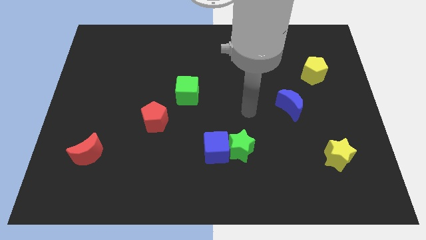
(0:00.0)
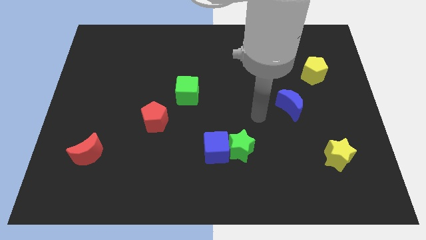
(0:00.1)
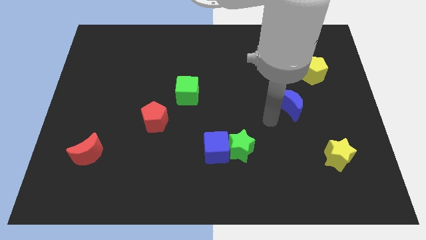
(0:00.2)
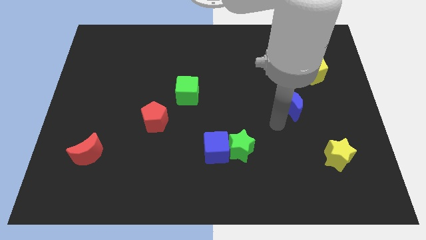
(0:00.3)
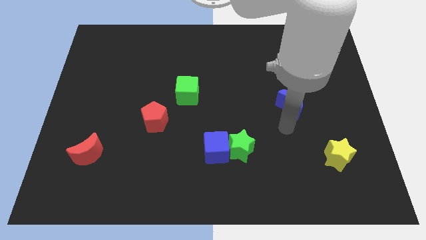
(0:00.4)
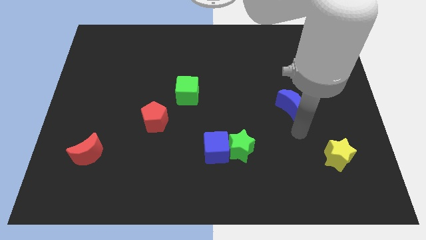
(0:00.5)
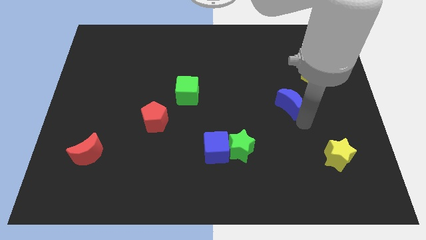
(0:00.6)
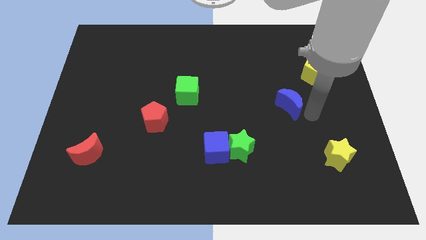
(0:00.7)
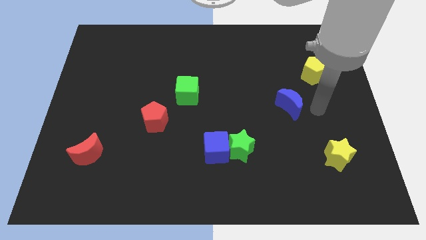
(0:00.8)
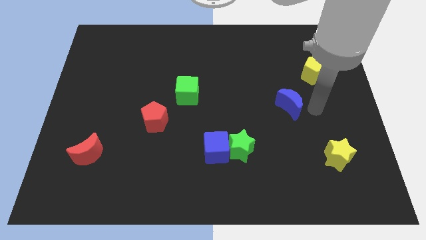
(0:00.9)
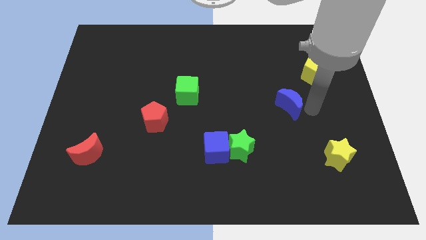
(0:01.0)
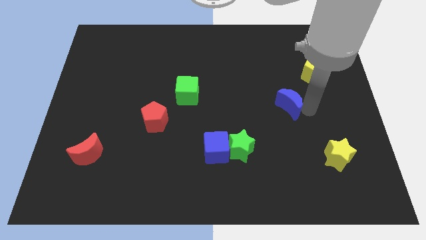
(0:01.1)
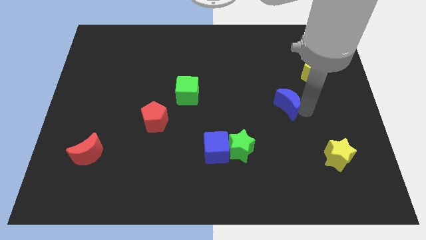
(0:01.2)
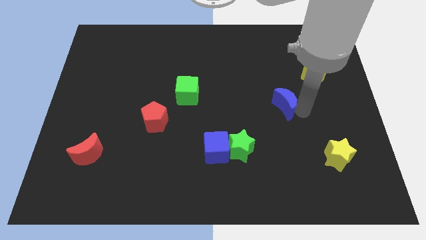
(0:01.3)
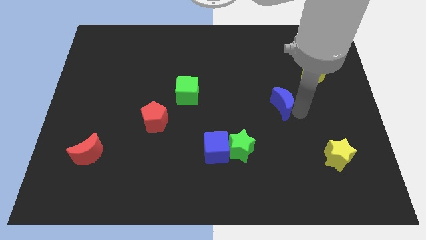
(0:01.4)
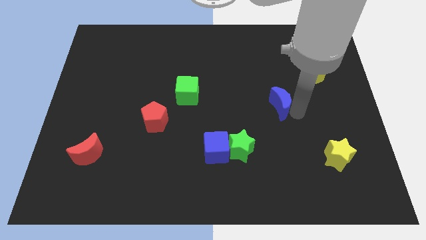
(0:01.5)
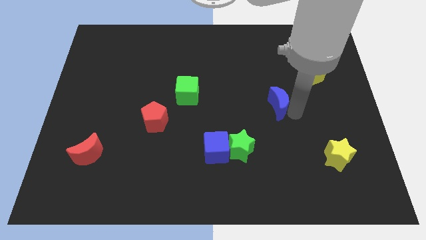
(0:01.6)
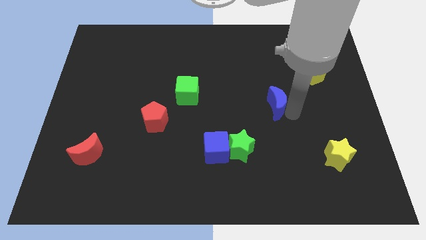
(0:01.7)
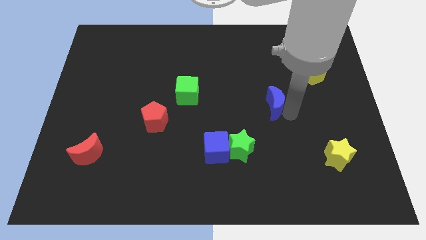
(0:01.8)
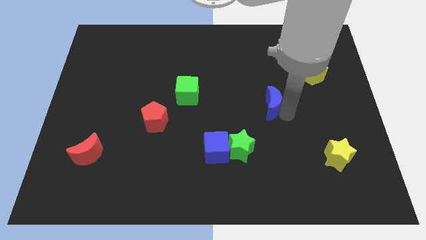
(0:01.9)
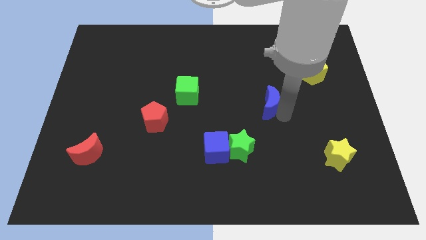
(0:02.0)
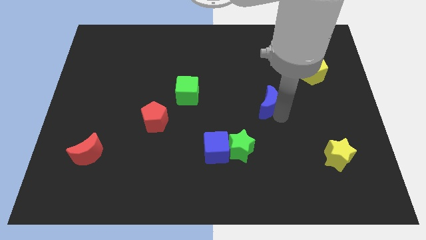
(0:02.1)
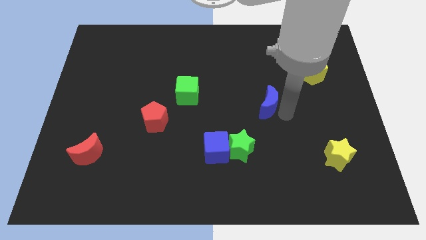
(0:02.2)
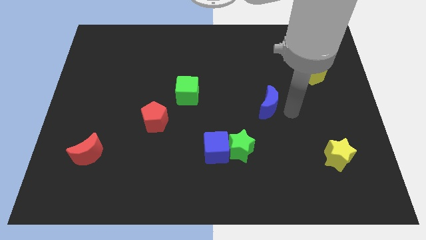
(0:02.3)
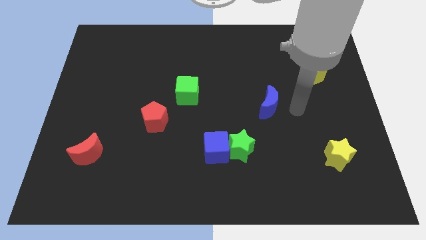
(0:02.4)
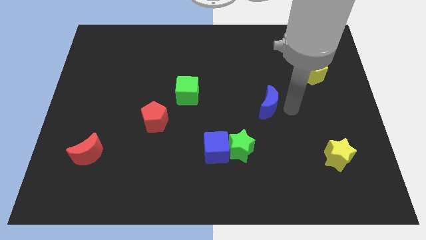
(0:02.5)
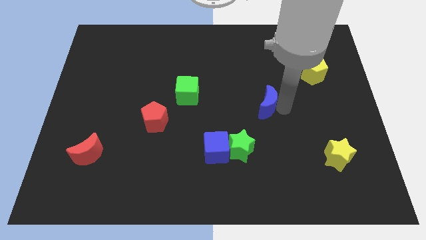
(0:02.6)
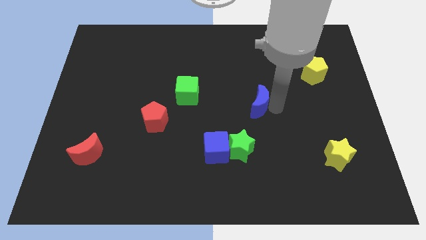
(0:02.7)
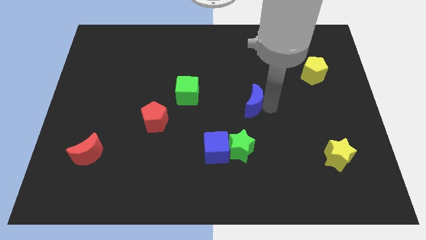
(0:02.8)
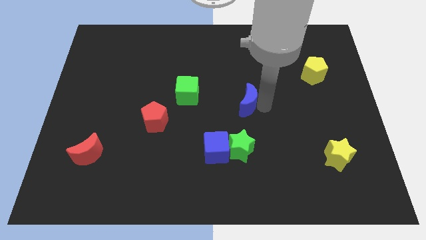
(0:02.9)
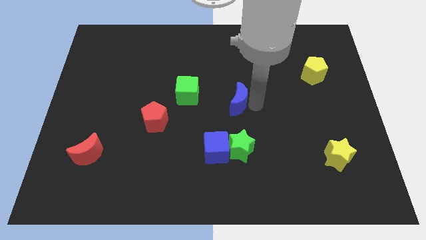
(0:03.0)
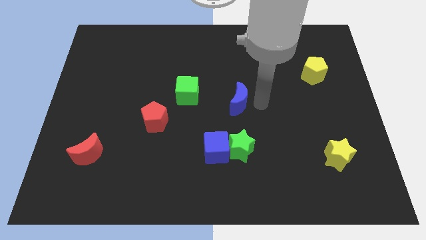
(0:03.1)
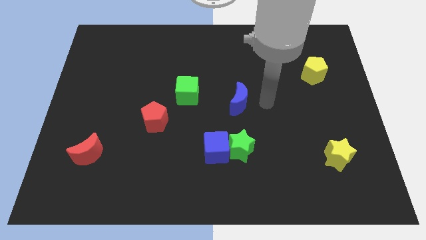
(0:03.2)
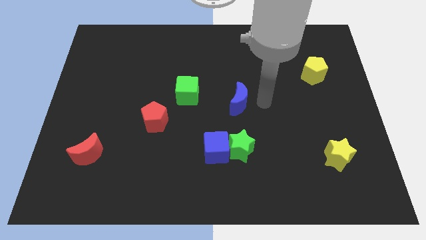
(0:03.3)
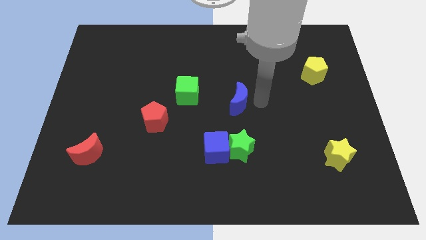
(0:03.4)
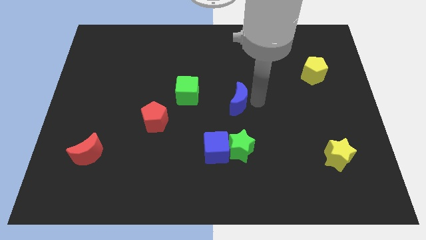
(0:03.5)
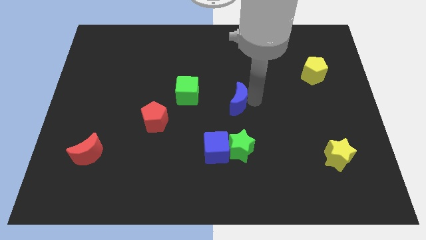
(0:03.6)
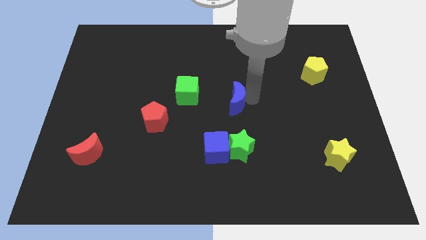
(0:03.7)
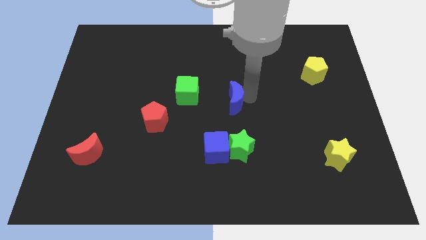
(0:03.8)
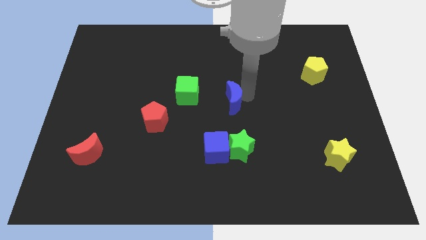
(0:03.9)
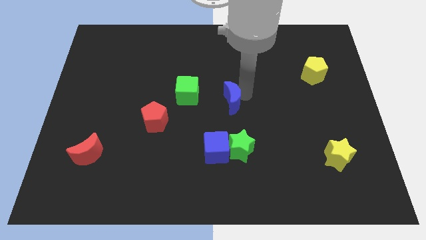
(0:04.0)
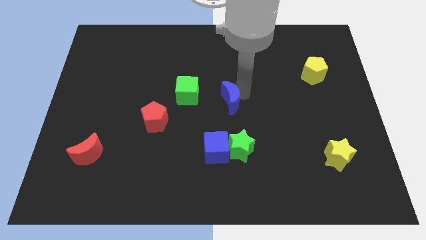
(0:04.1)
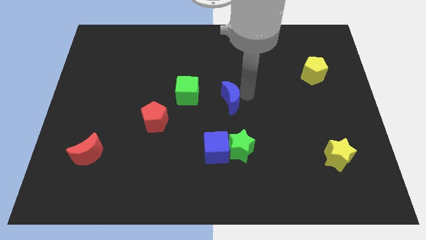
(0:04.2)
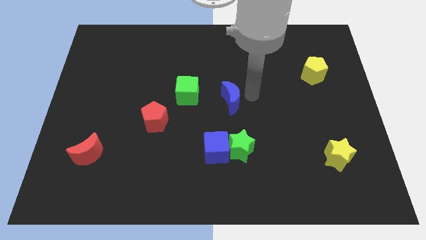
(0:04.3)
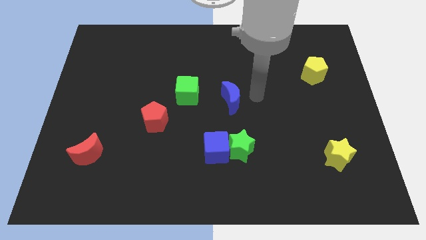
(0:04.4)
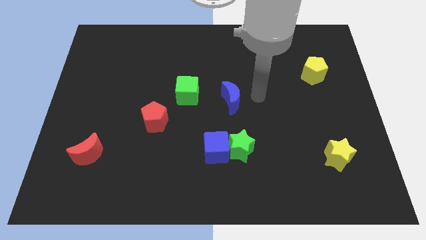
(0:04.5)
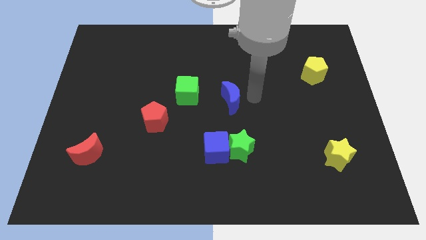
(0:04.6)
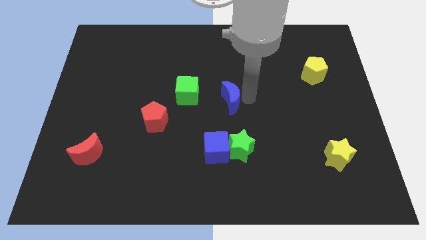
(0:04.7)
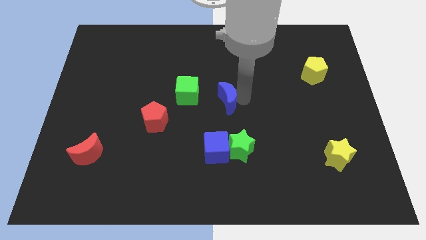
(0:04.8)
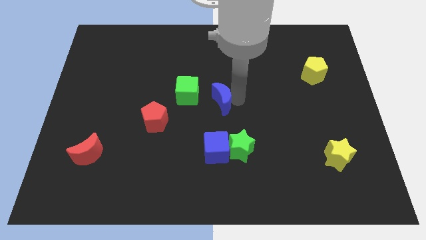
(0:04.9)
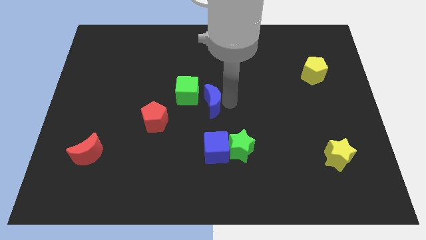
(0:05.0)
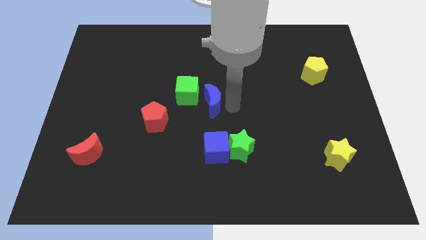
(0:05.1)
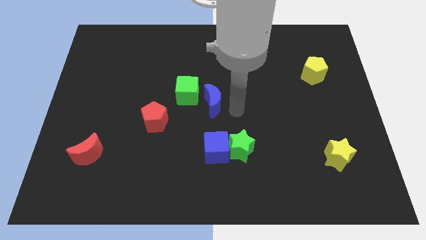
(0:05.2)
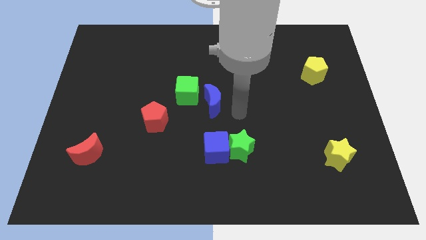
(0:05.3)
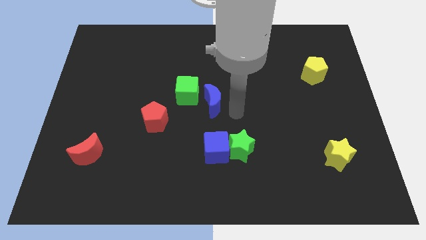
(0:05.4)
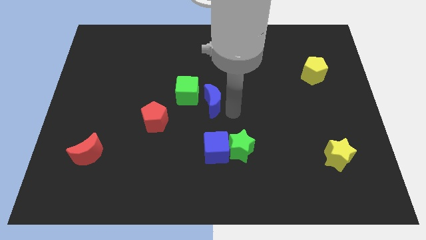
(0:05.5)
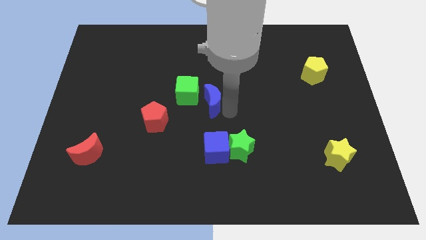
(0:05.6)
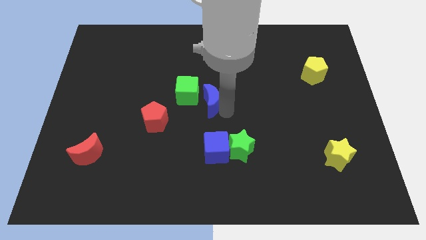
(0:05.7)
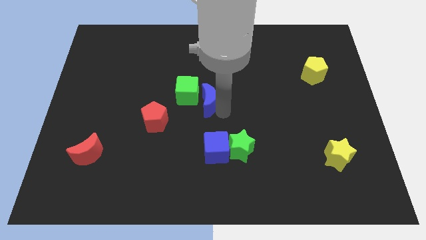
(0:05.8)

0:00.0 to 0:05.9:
put the blue moon close to the green cube

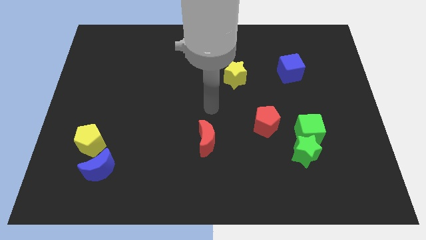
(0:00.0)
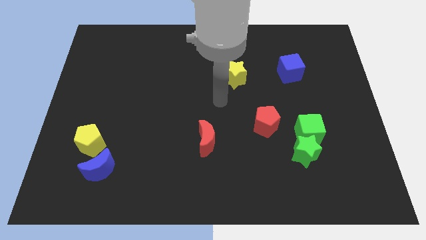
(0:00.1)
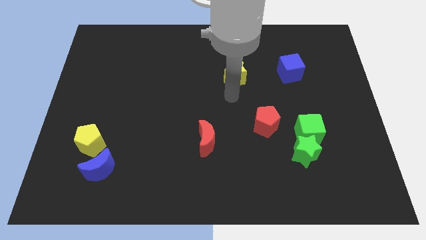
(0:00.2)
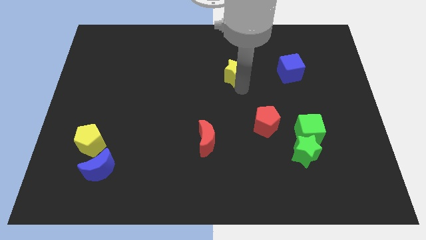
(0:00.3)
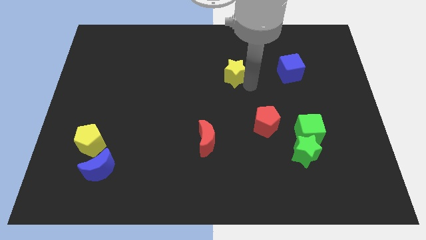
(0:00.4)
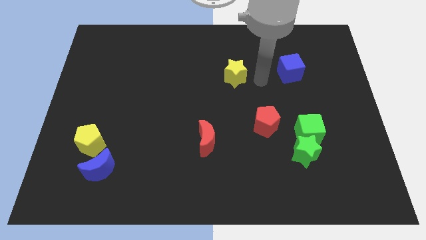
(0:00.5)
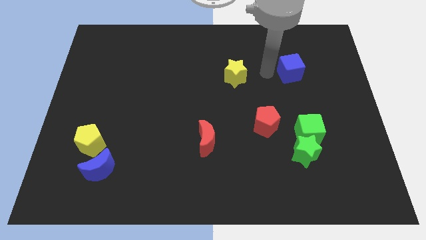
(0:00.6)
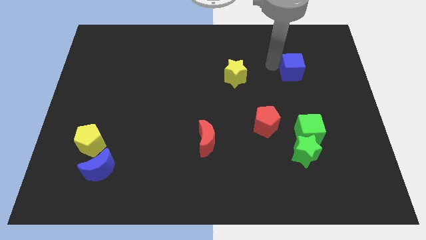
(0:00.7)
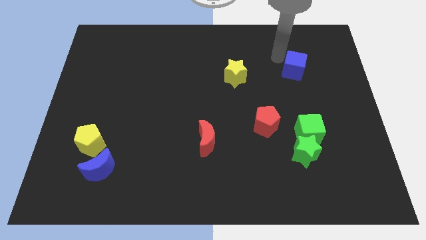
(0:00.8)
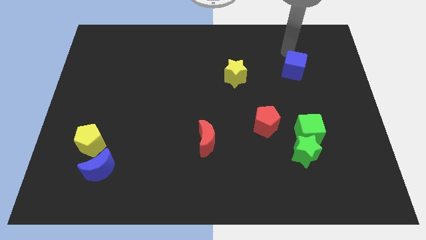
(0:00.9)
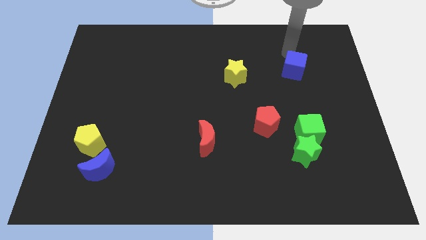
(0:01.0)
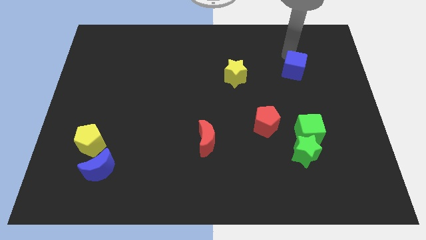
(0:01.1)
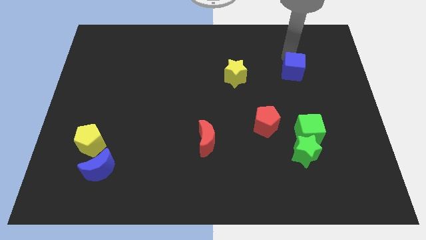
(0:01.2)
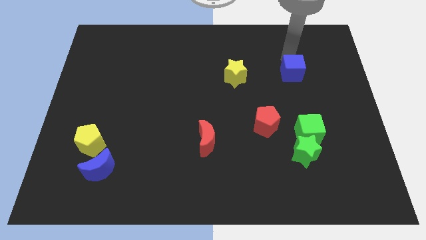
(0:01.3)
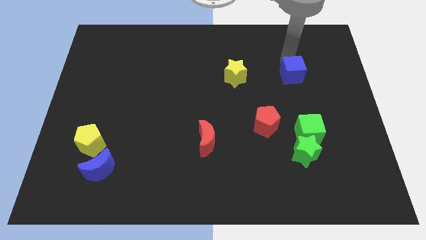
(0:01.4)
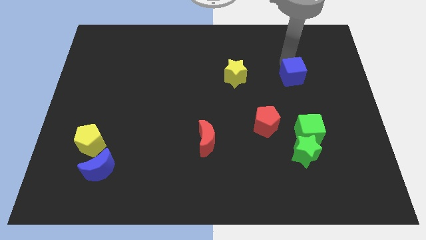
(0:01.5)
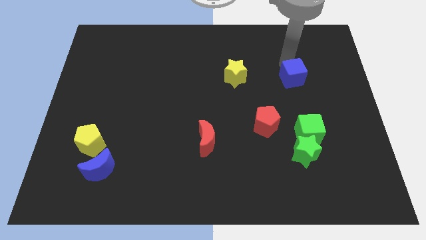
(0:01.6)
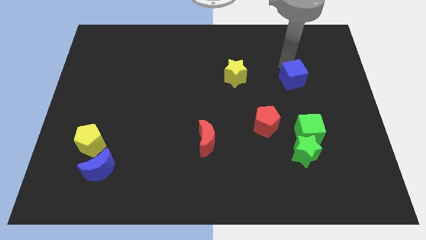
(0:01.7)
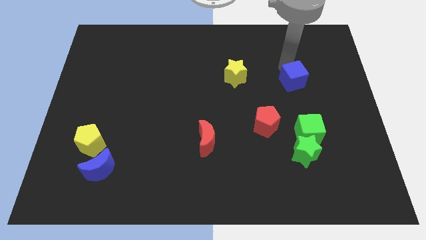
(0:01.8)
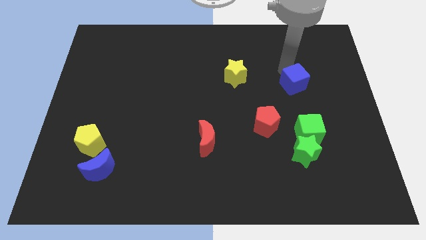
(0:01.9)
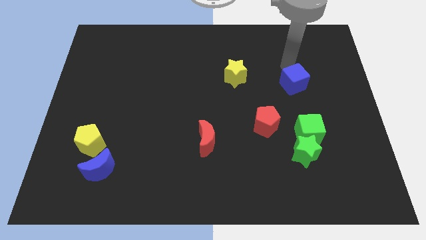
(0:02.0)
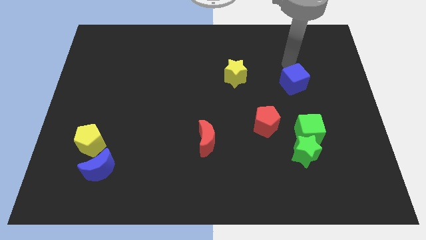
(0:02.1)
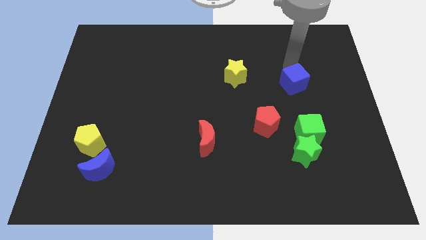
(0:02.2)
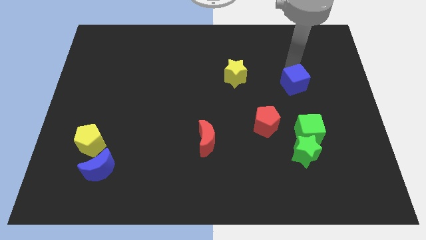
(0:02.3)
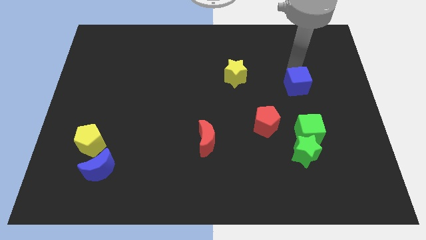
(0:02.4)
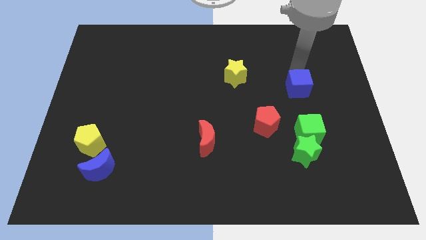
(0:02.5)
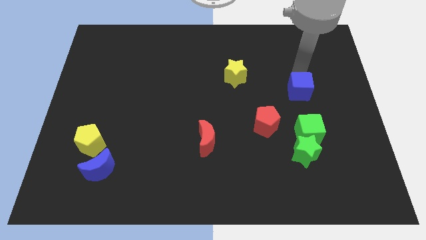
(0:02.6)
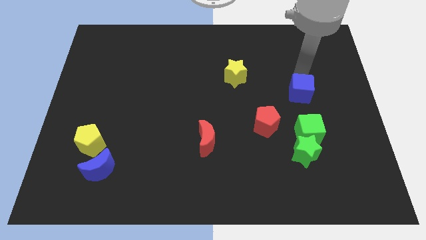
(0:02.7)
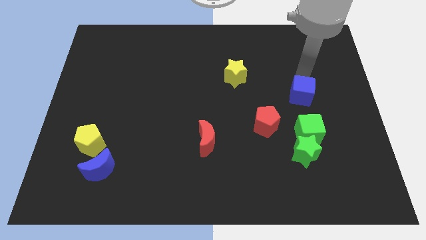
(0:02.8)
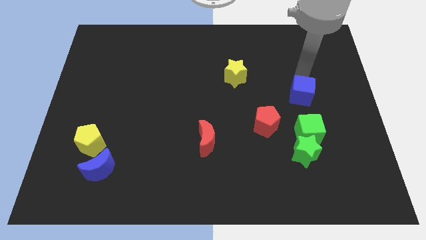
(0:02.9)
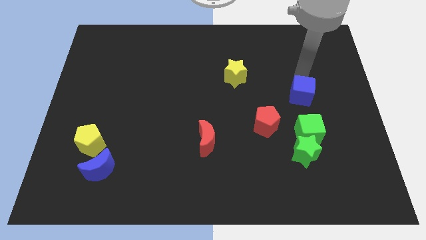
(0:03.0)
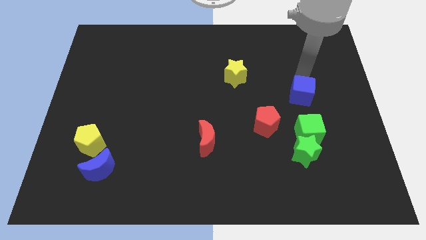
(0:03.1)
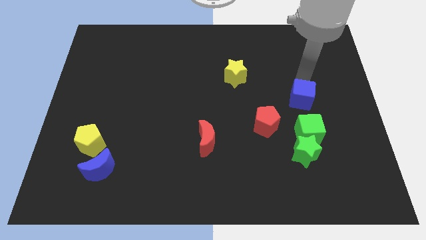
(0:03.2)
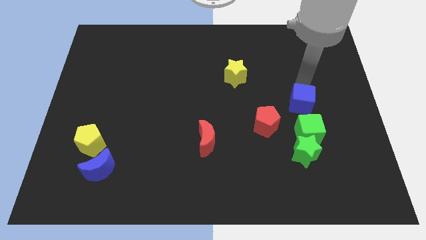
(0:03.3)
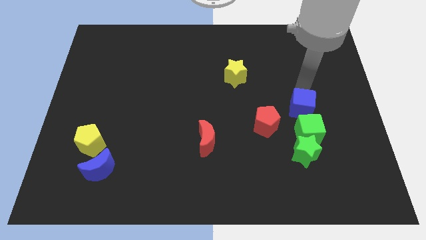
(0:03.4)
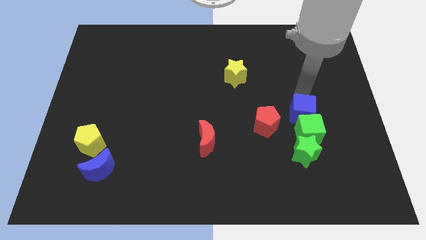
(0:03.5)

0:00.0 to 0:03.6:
push the blue cube next to the green cube
